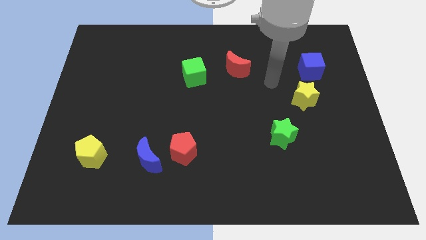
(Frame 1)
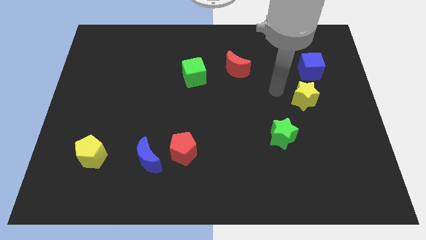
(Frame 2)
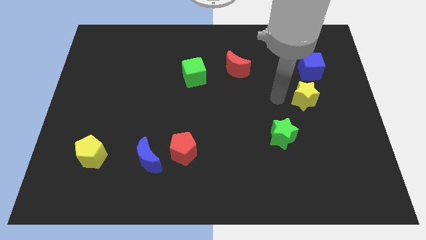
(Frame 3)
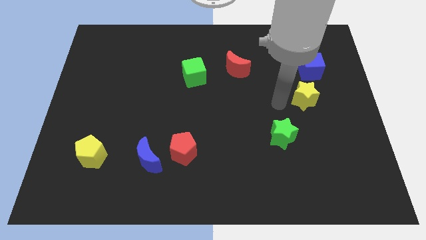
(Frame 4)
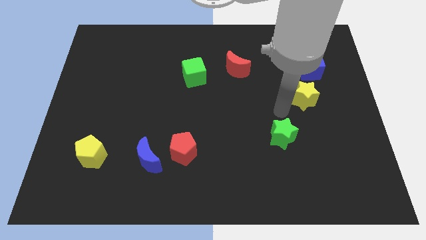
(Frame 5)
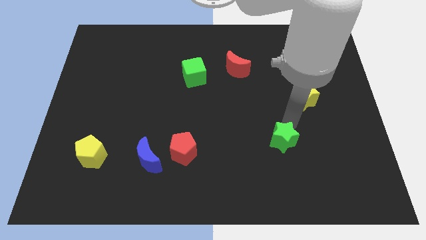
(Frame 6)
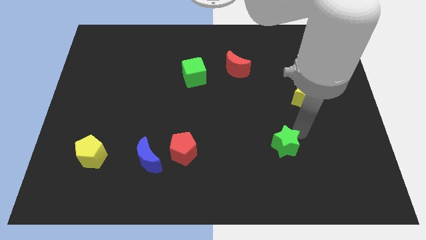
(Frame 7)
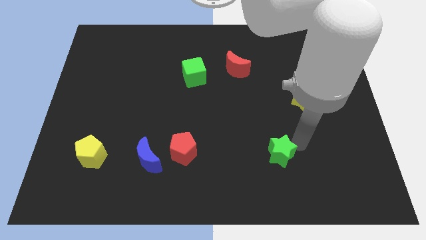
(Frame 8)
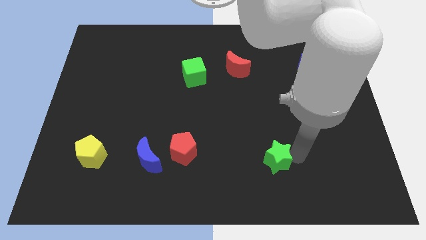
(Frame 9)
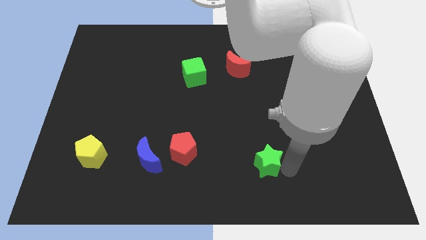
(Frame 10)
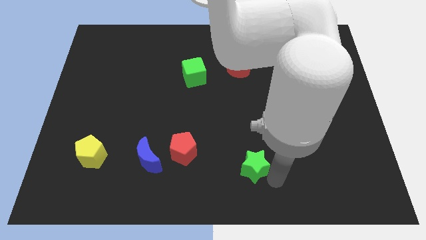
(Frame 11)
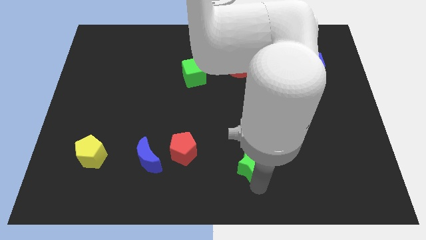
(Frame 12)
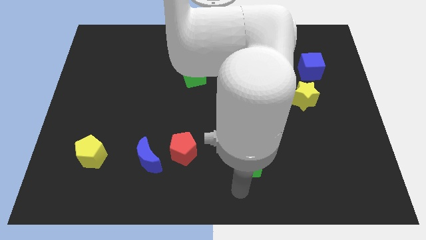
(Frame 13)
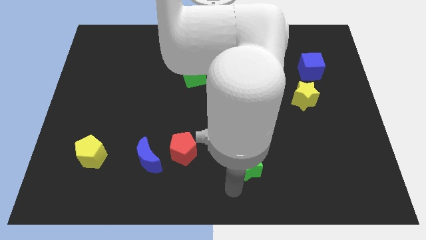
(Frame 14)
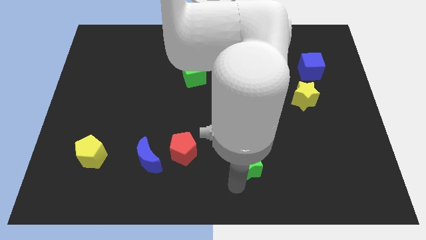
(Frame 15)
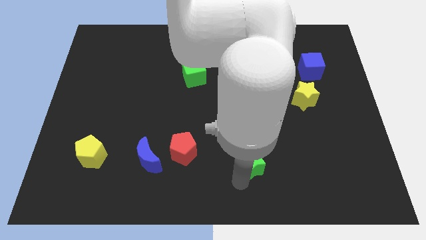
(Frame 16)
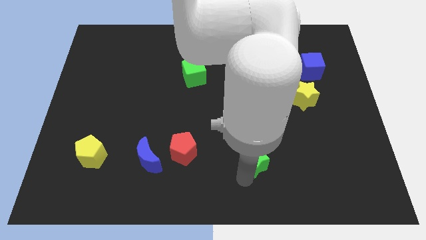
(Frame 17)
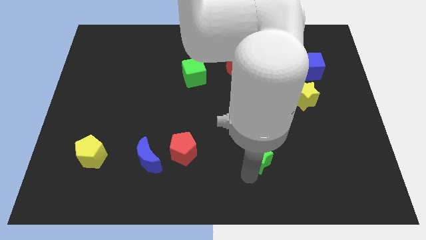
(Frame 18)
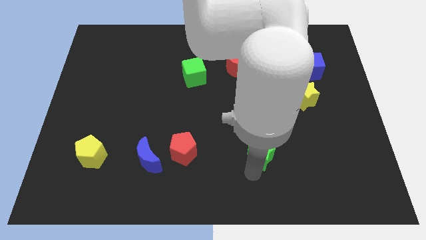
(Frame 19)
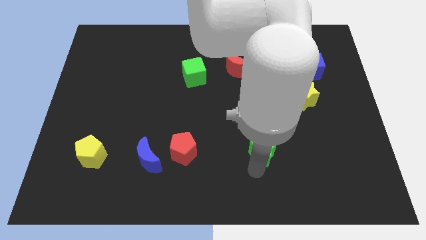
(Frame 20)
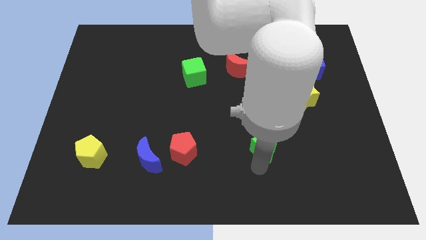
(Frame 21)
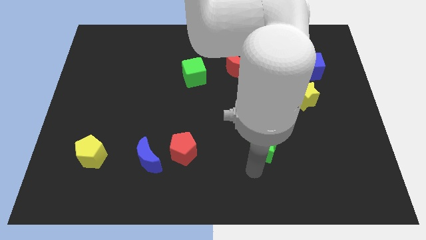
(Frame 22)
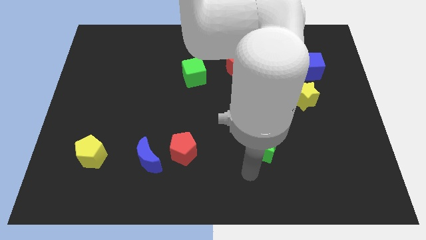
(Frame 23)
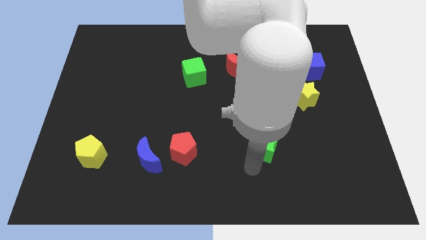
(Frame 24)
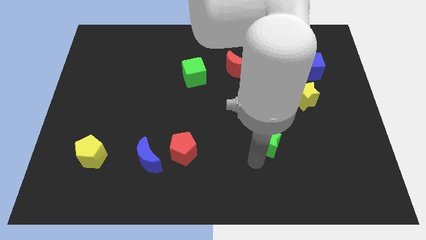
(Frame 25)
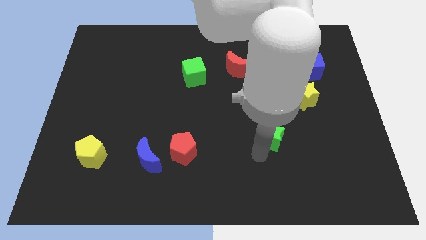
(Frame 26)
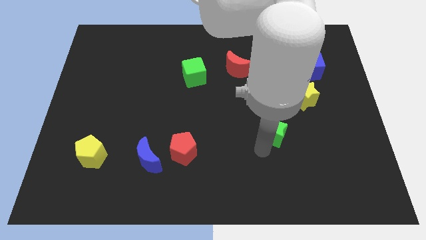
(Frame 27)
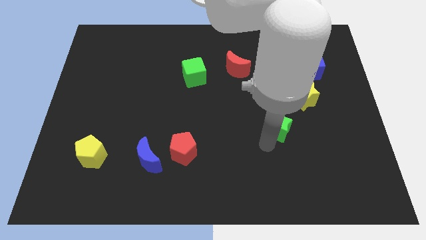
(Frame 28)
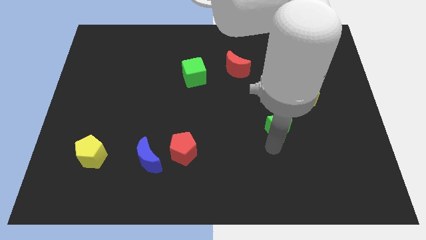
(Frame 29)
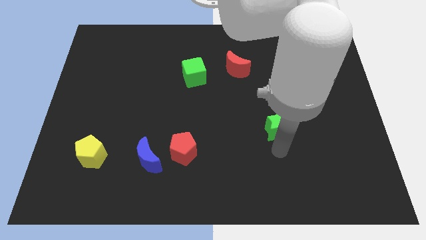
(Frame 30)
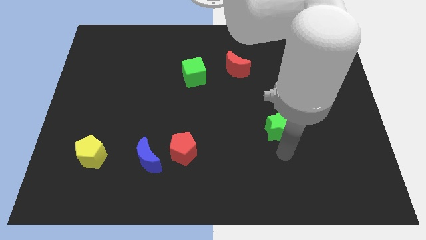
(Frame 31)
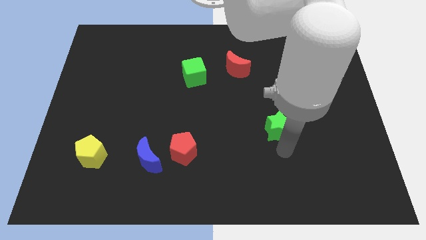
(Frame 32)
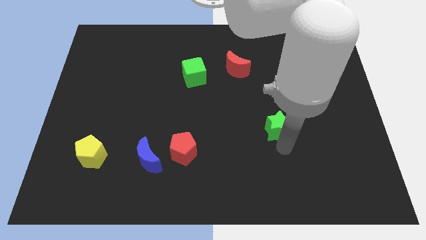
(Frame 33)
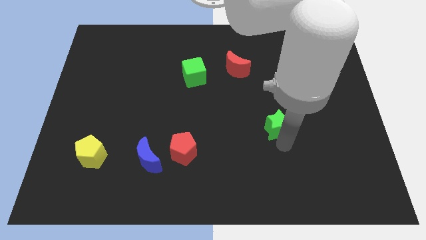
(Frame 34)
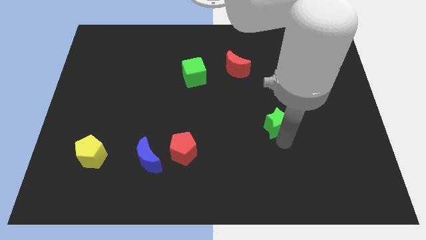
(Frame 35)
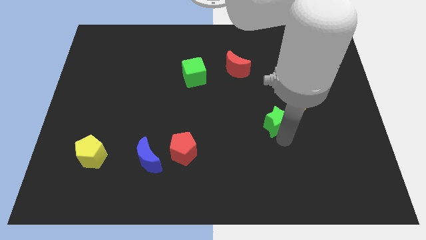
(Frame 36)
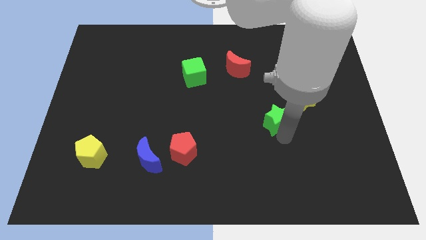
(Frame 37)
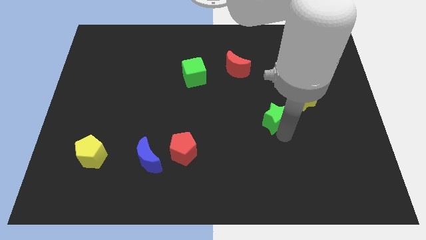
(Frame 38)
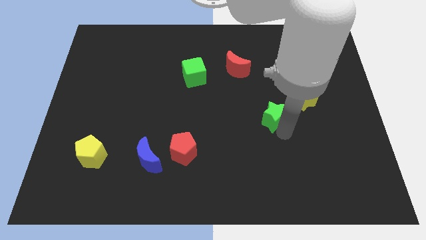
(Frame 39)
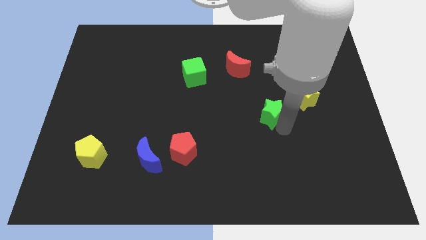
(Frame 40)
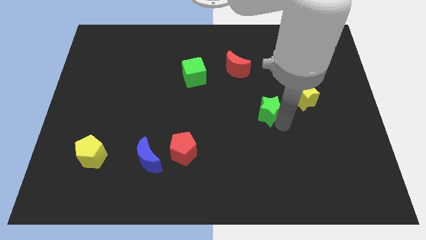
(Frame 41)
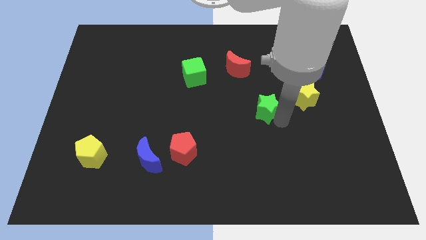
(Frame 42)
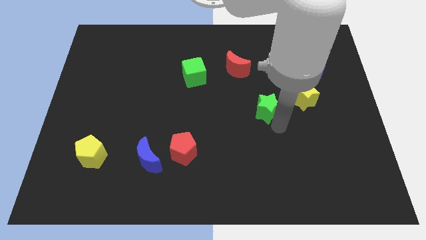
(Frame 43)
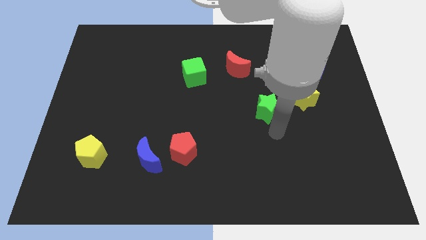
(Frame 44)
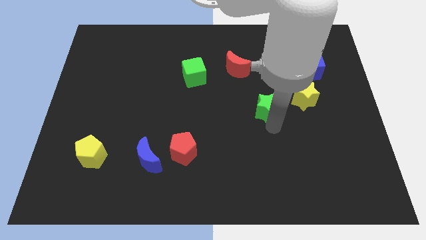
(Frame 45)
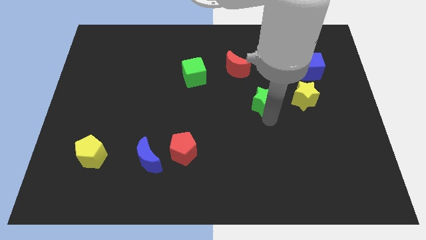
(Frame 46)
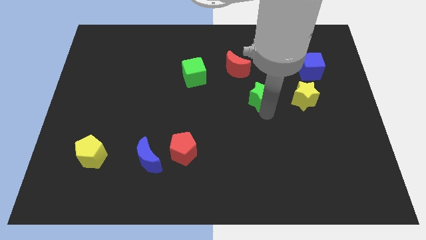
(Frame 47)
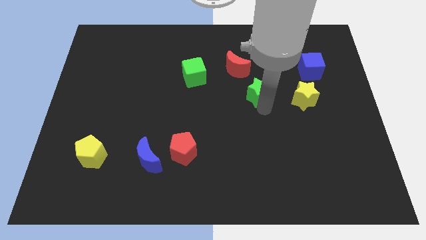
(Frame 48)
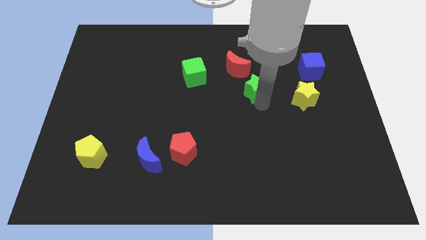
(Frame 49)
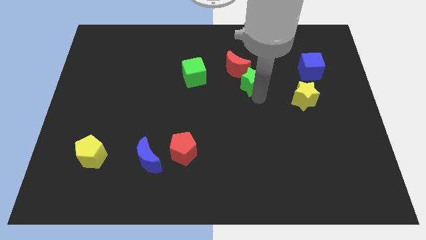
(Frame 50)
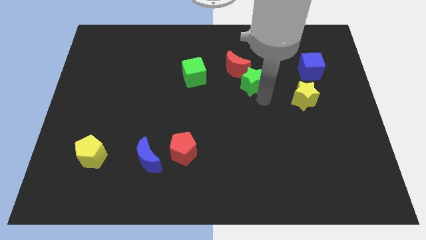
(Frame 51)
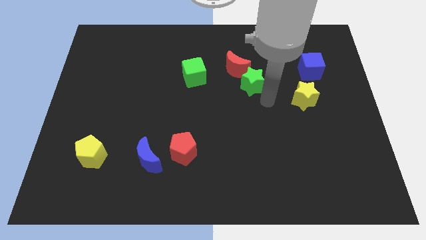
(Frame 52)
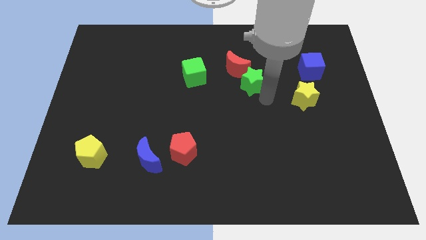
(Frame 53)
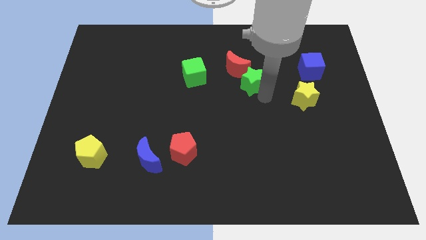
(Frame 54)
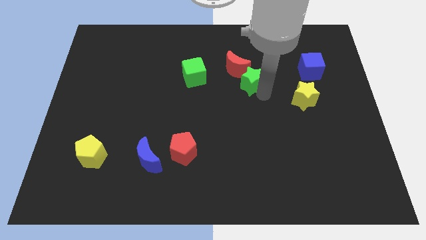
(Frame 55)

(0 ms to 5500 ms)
push the green star close to the red moon

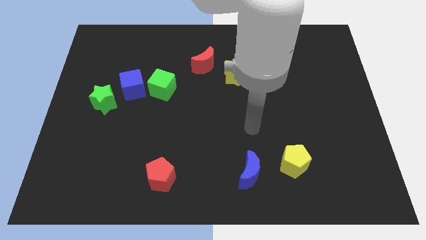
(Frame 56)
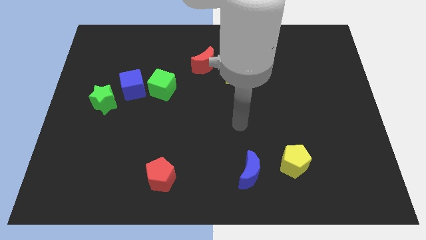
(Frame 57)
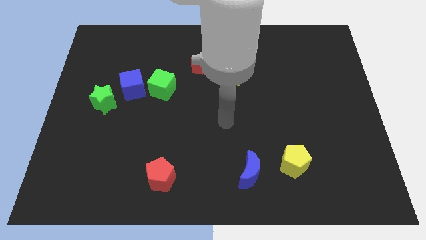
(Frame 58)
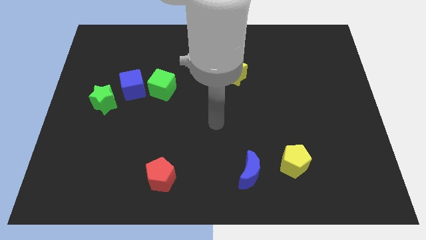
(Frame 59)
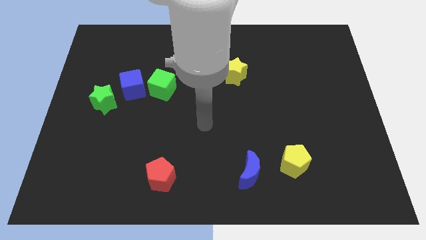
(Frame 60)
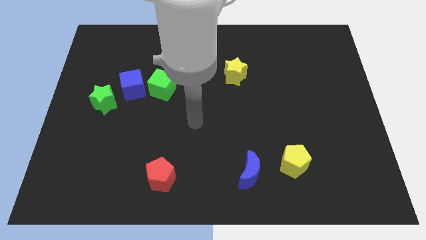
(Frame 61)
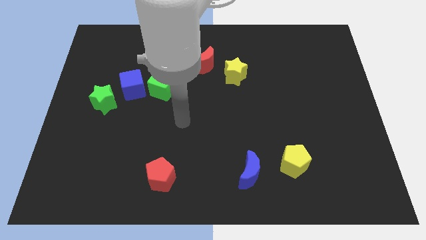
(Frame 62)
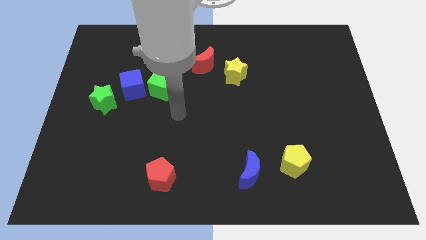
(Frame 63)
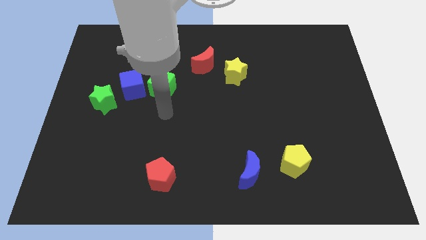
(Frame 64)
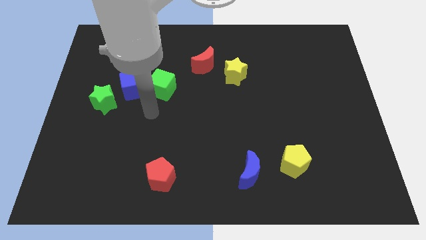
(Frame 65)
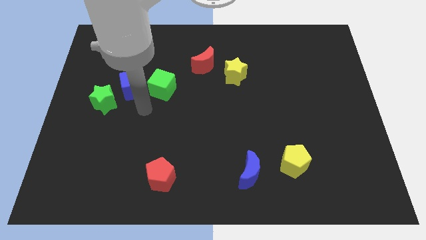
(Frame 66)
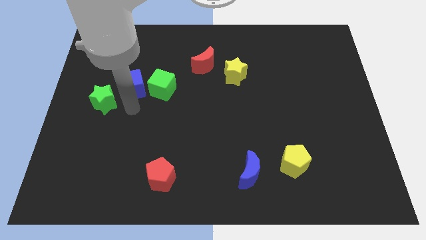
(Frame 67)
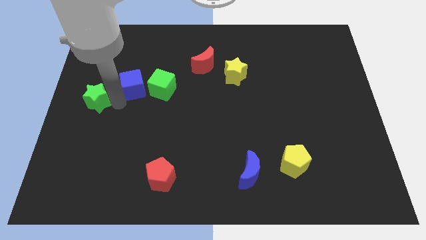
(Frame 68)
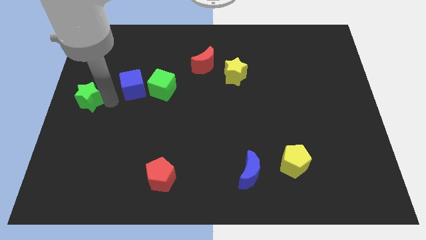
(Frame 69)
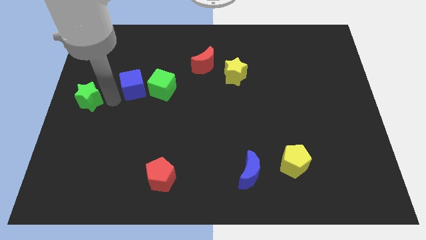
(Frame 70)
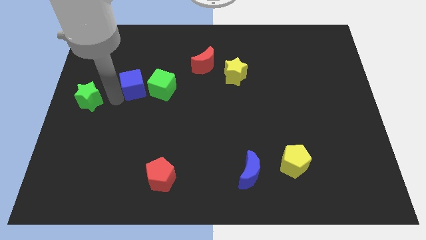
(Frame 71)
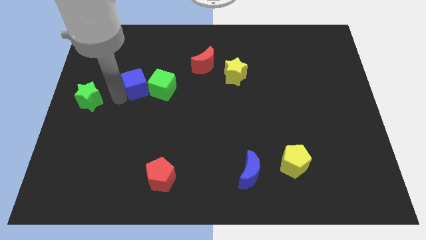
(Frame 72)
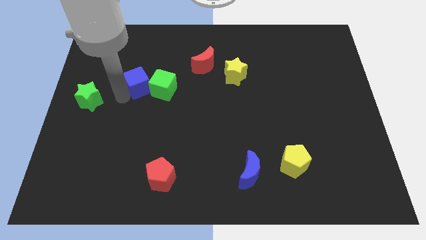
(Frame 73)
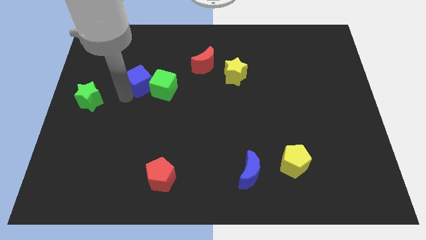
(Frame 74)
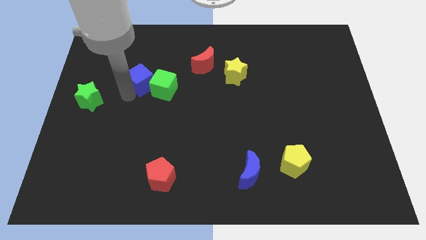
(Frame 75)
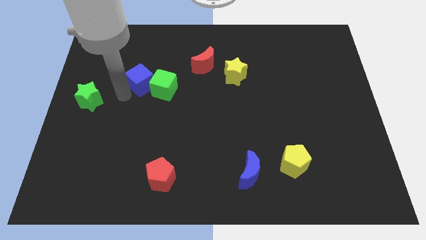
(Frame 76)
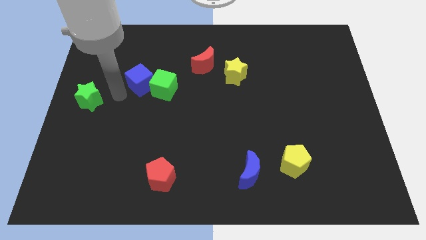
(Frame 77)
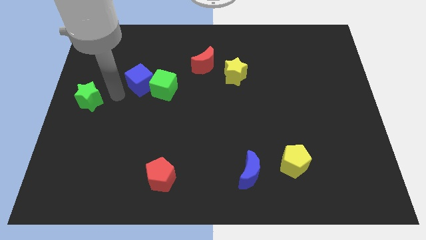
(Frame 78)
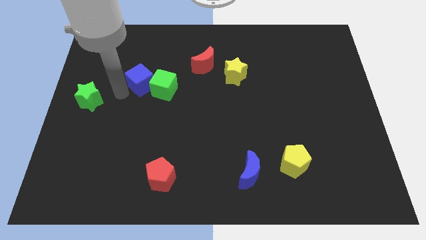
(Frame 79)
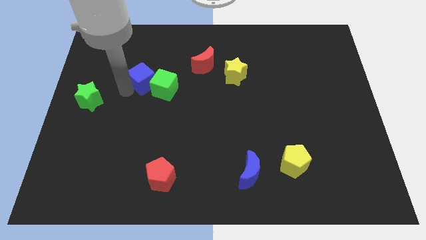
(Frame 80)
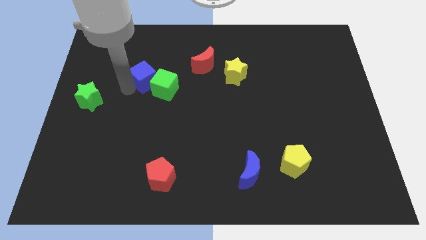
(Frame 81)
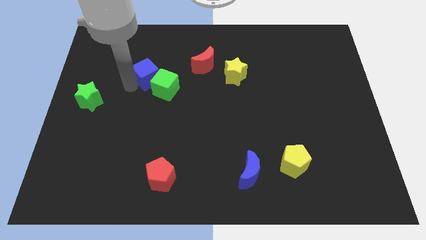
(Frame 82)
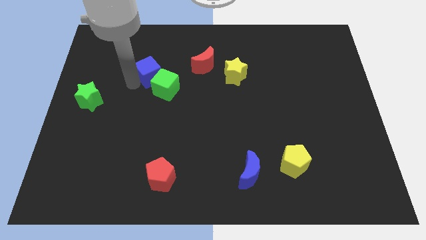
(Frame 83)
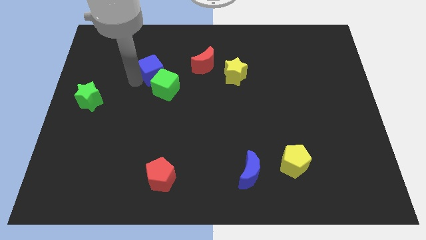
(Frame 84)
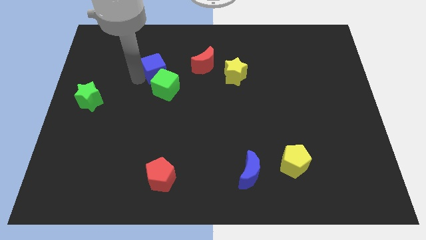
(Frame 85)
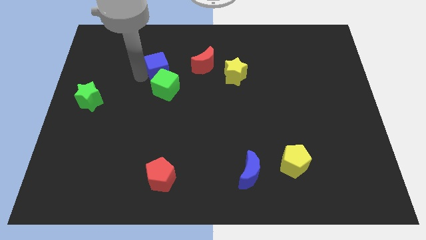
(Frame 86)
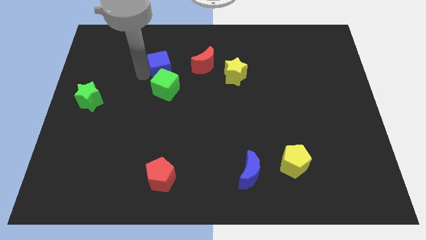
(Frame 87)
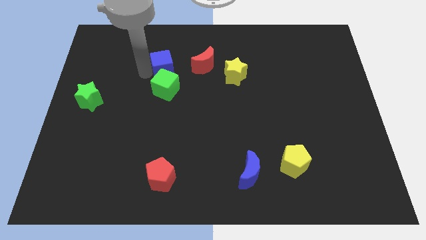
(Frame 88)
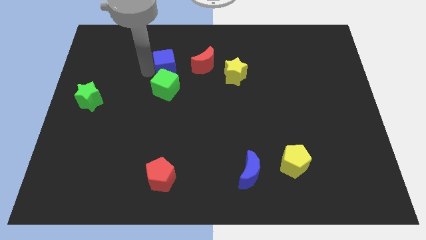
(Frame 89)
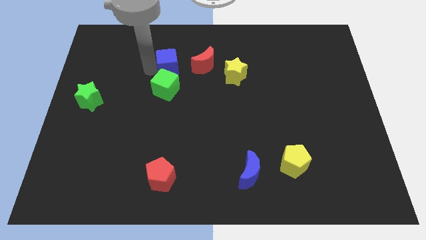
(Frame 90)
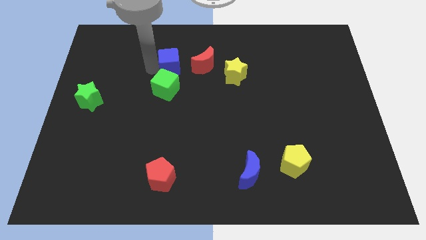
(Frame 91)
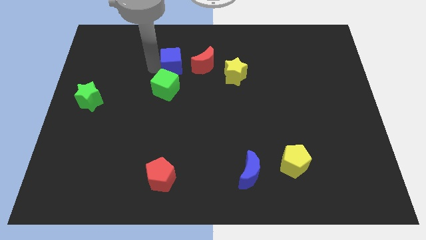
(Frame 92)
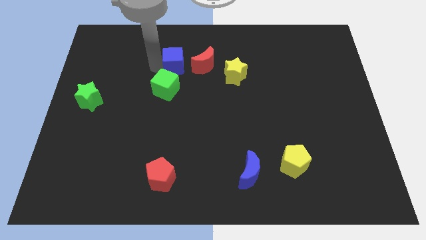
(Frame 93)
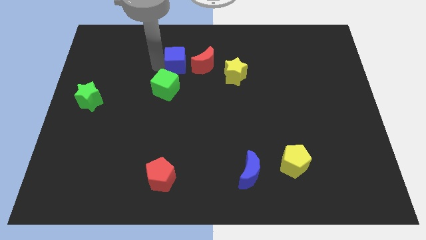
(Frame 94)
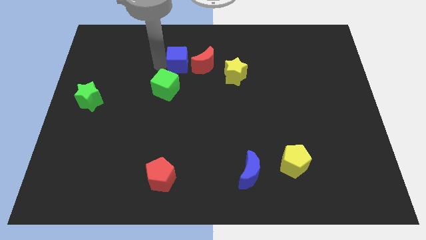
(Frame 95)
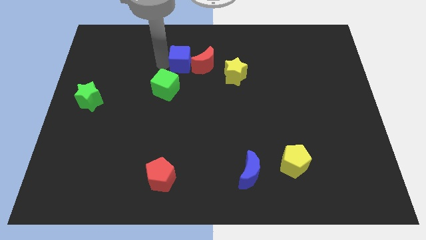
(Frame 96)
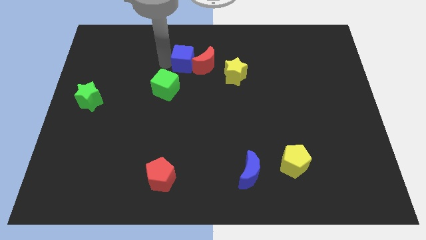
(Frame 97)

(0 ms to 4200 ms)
push the blue cube close to the red moon
